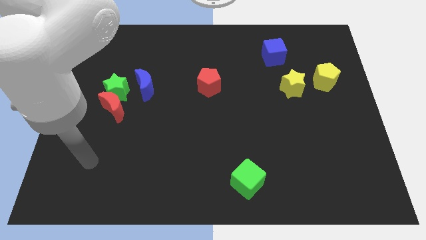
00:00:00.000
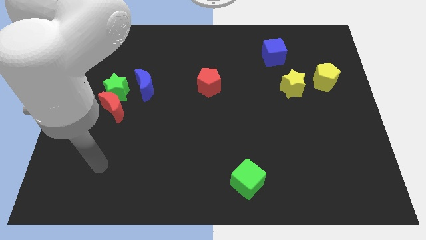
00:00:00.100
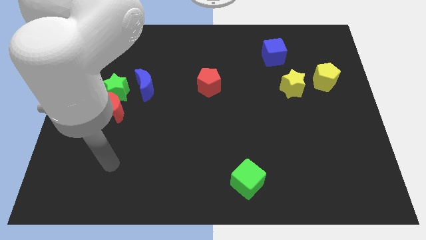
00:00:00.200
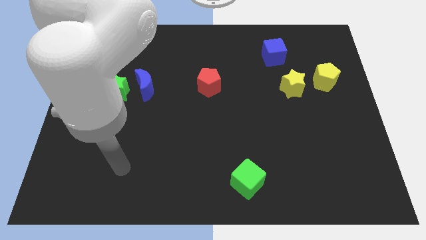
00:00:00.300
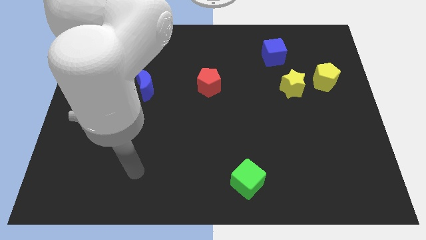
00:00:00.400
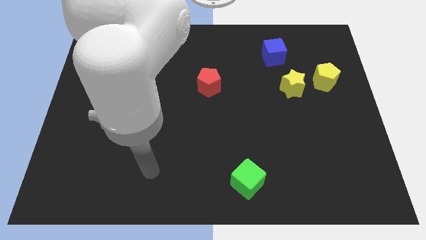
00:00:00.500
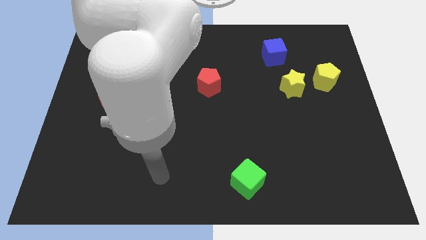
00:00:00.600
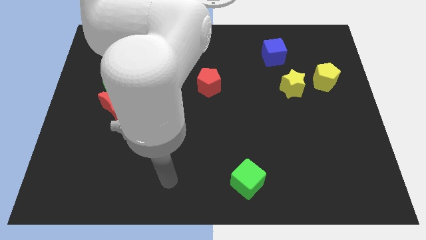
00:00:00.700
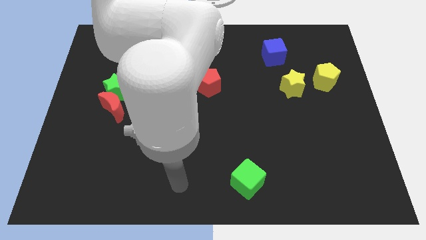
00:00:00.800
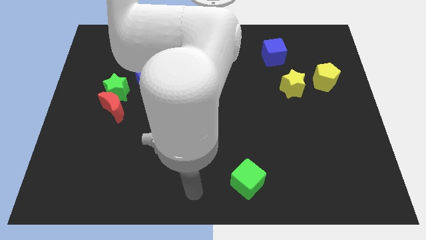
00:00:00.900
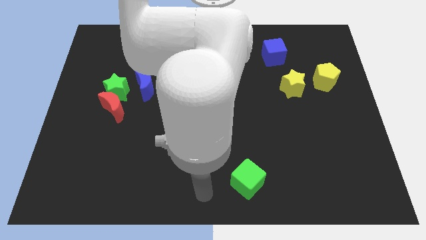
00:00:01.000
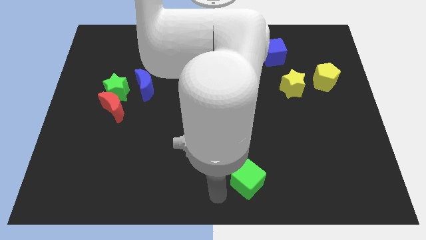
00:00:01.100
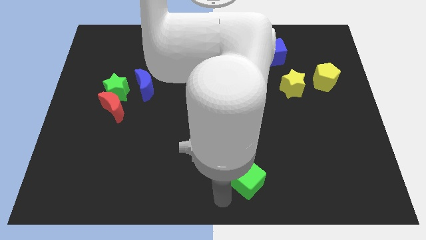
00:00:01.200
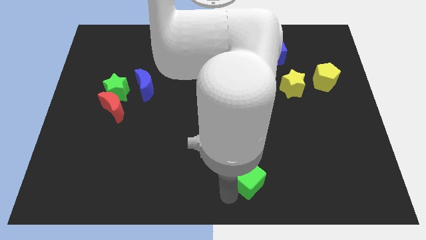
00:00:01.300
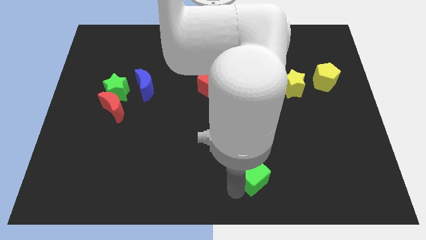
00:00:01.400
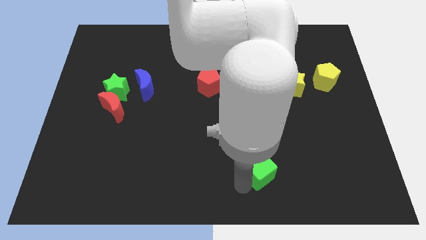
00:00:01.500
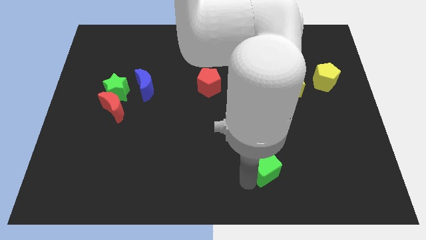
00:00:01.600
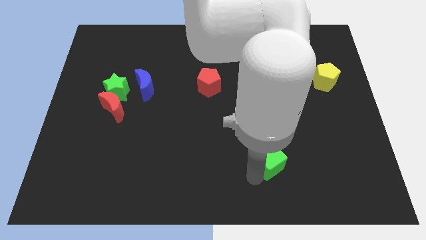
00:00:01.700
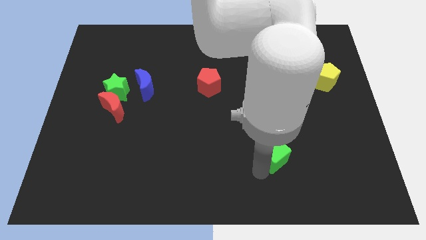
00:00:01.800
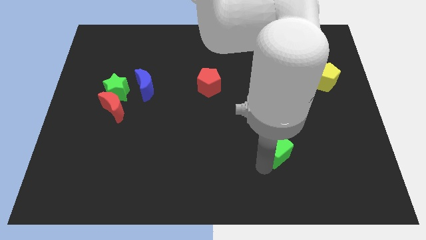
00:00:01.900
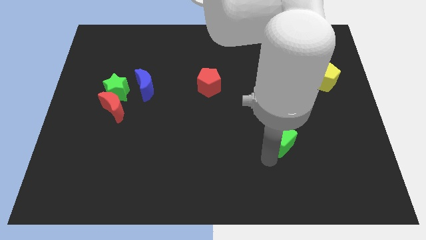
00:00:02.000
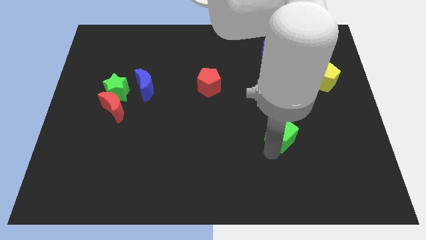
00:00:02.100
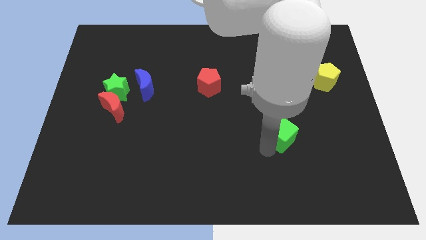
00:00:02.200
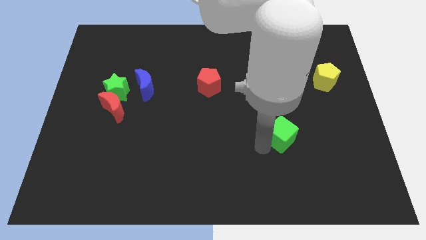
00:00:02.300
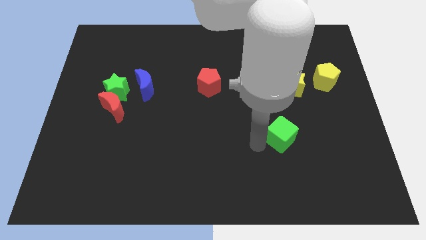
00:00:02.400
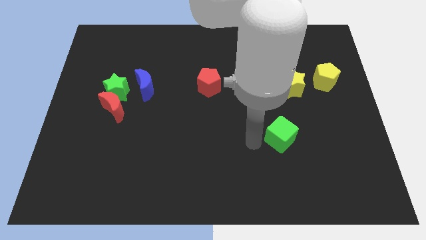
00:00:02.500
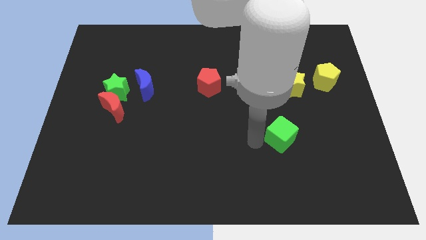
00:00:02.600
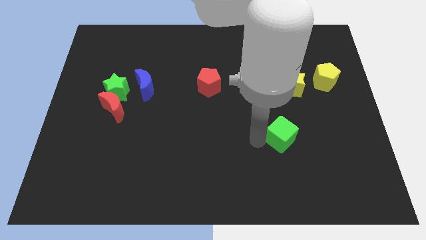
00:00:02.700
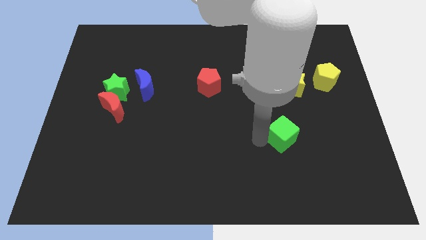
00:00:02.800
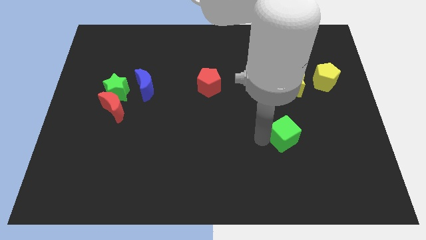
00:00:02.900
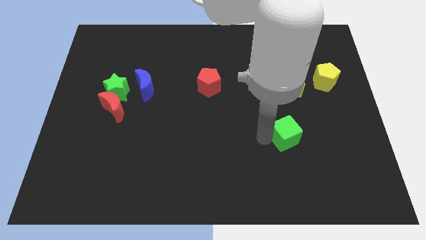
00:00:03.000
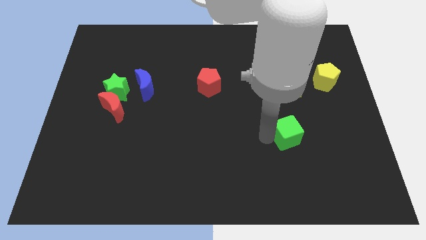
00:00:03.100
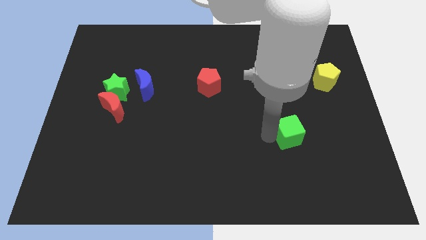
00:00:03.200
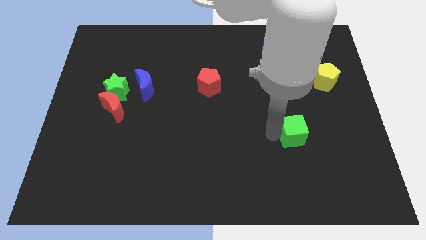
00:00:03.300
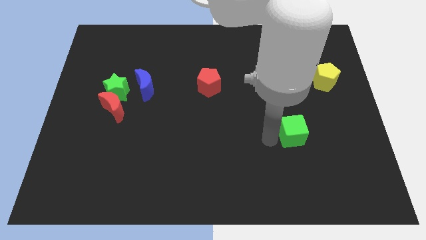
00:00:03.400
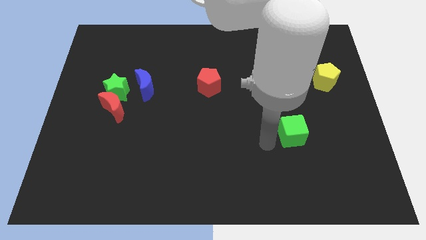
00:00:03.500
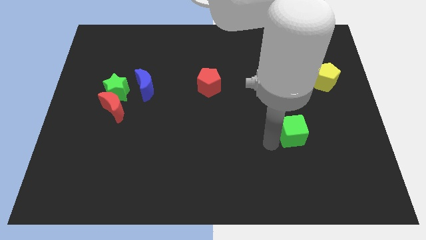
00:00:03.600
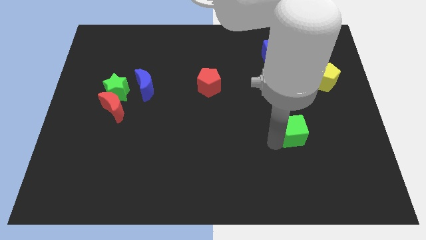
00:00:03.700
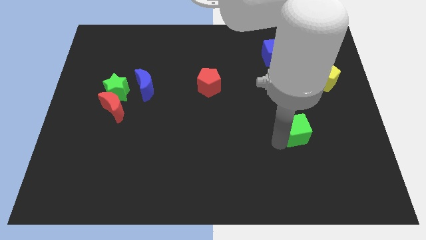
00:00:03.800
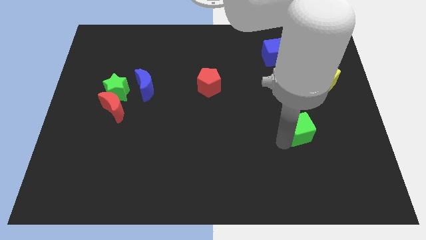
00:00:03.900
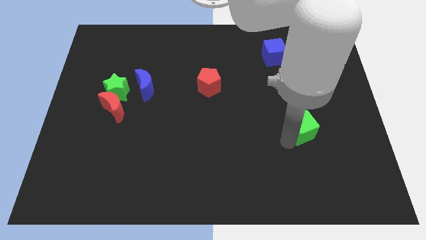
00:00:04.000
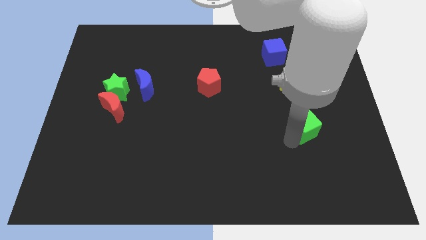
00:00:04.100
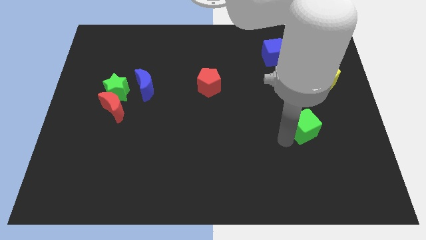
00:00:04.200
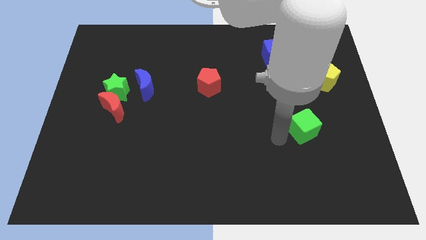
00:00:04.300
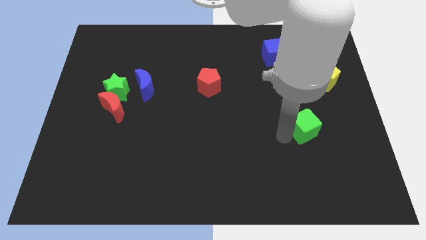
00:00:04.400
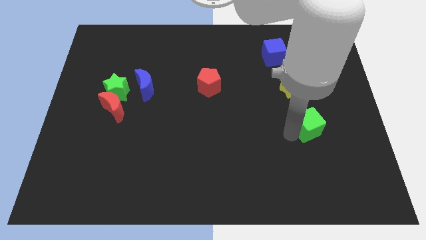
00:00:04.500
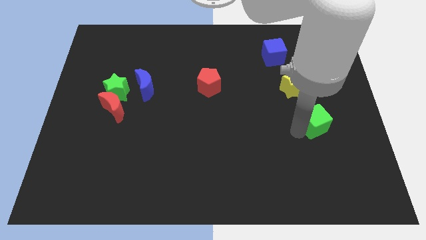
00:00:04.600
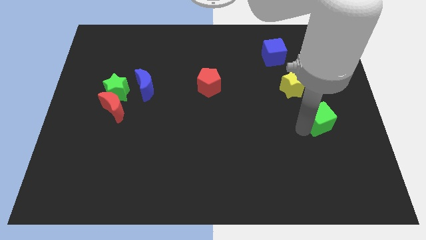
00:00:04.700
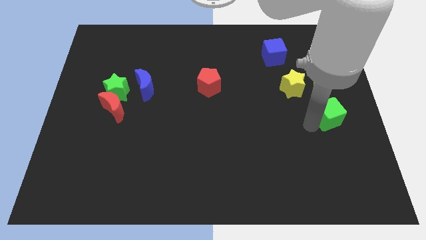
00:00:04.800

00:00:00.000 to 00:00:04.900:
slide the green cube to the right side of the board

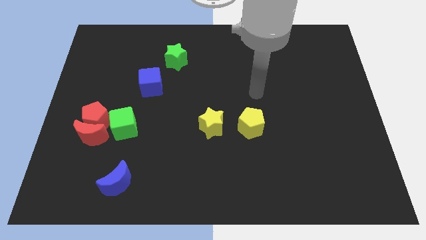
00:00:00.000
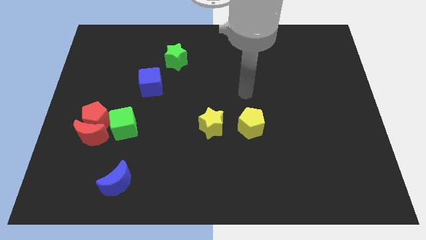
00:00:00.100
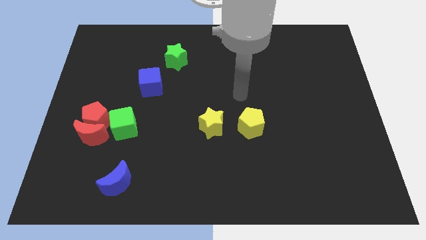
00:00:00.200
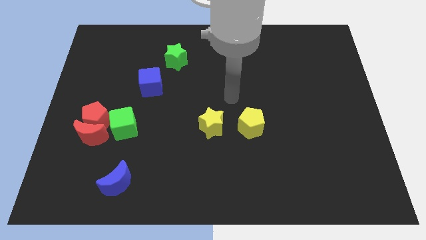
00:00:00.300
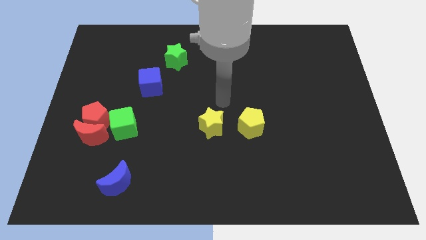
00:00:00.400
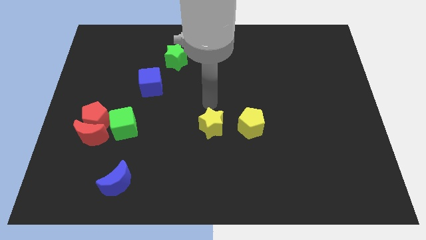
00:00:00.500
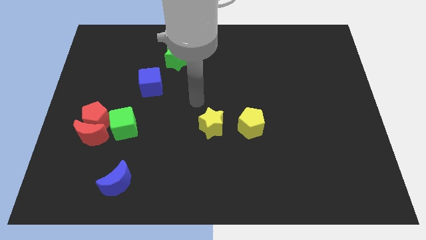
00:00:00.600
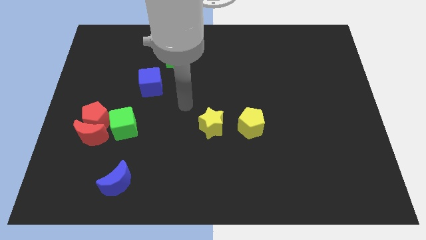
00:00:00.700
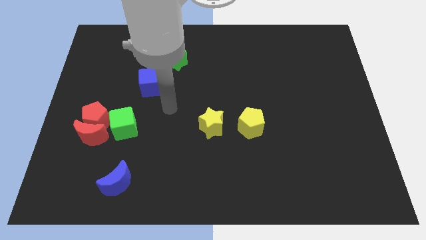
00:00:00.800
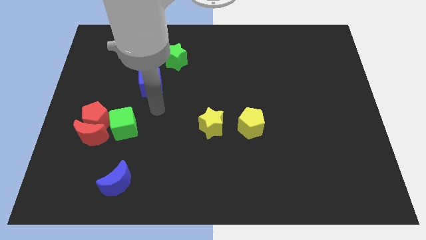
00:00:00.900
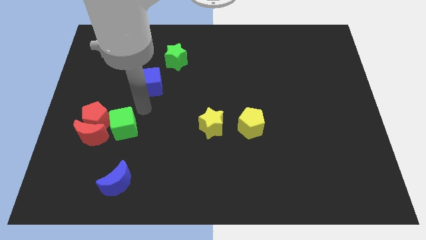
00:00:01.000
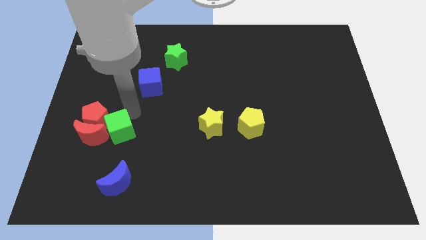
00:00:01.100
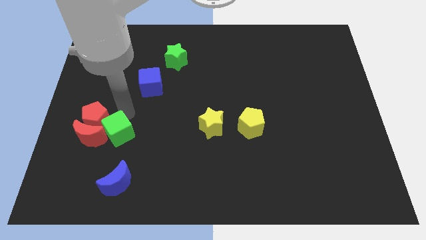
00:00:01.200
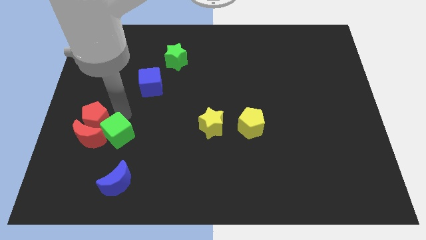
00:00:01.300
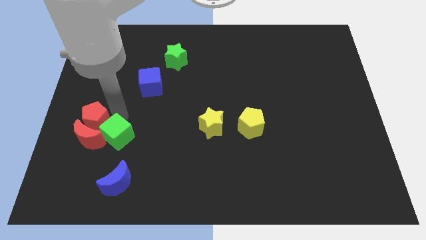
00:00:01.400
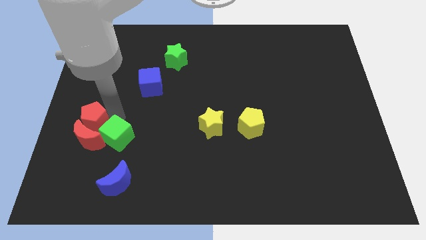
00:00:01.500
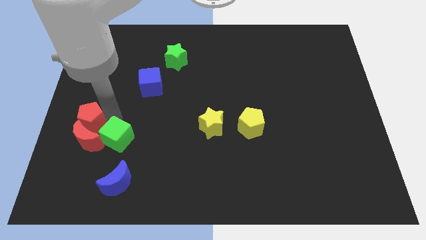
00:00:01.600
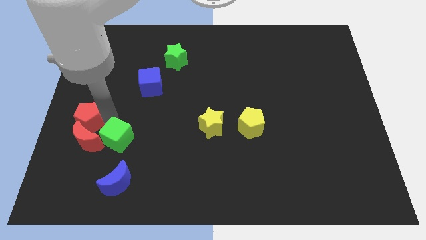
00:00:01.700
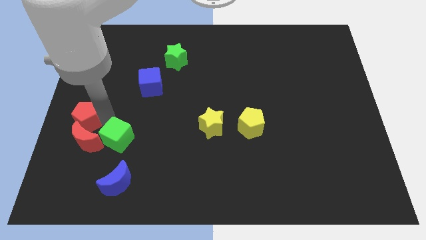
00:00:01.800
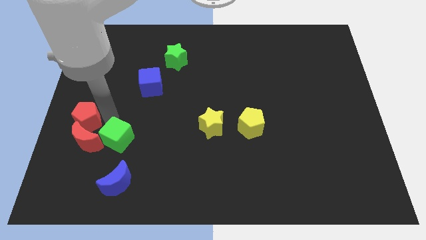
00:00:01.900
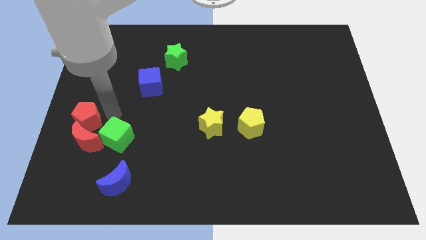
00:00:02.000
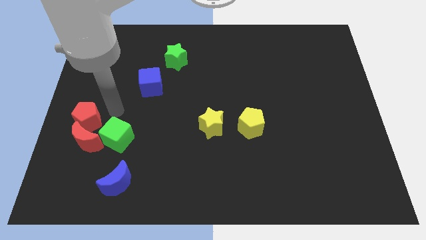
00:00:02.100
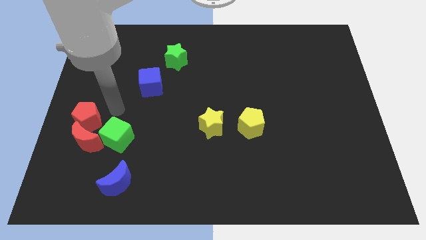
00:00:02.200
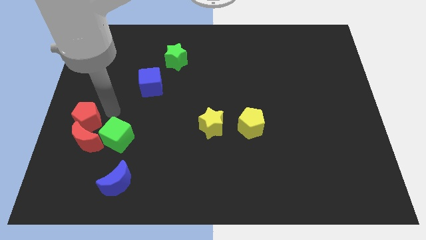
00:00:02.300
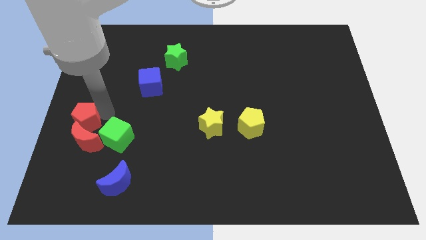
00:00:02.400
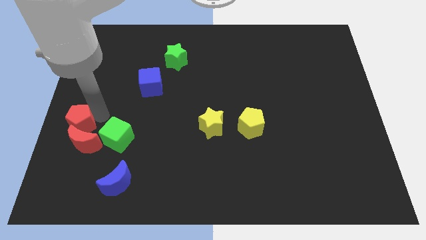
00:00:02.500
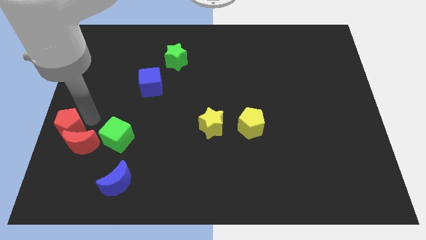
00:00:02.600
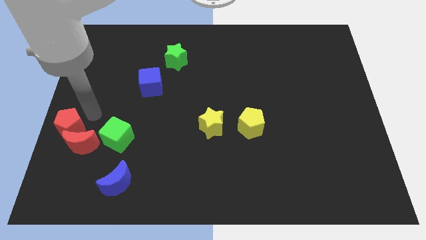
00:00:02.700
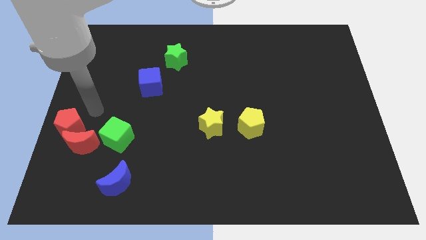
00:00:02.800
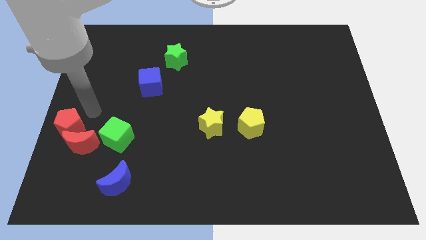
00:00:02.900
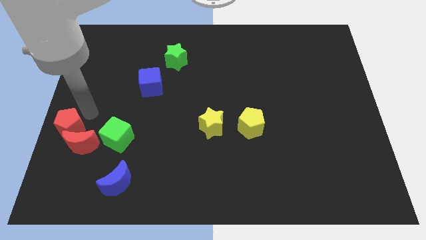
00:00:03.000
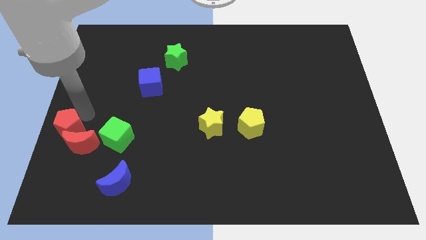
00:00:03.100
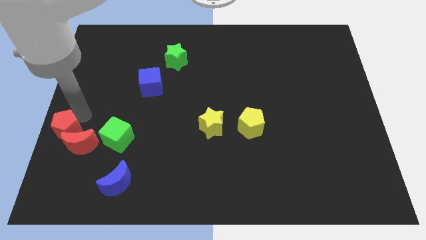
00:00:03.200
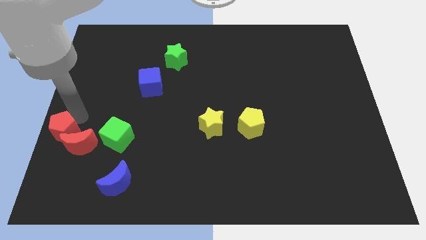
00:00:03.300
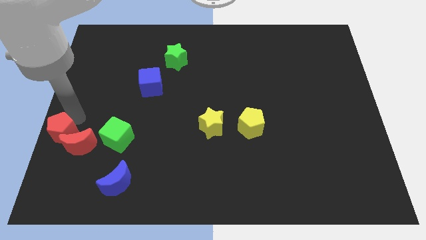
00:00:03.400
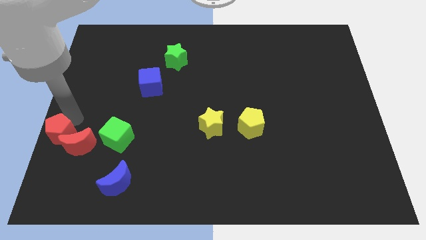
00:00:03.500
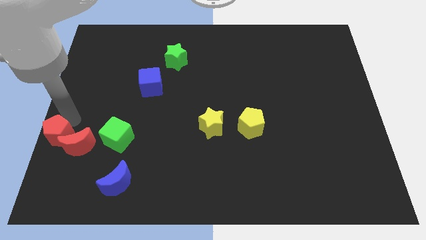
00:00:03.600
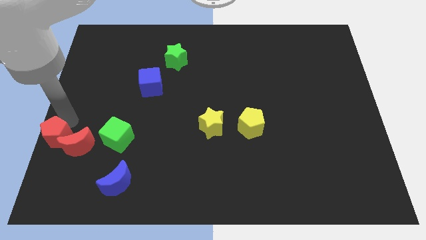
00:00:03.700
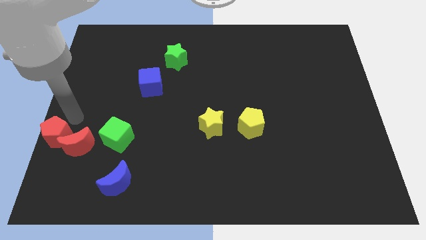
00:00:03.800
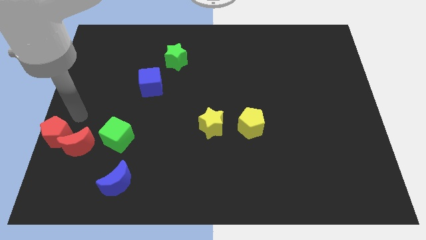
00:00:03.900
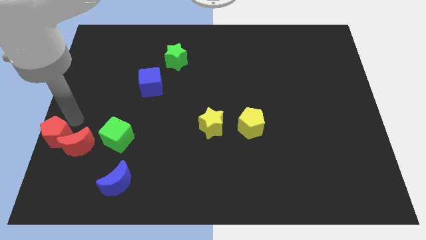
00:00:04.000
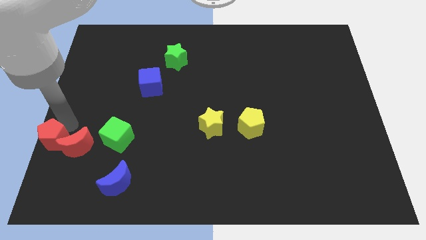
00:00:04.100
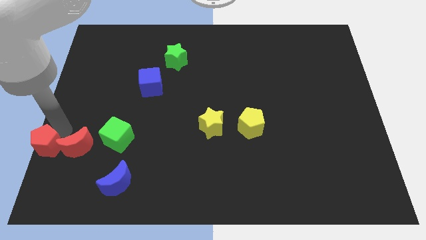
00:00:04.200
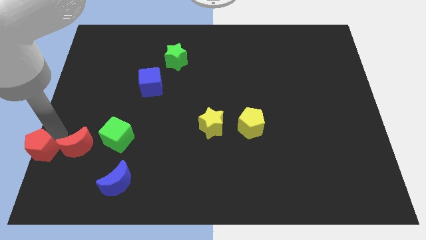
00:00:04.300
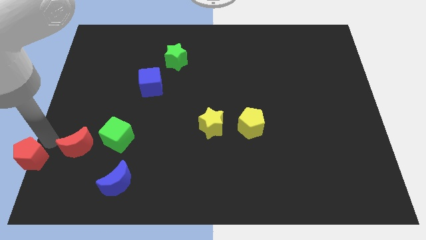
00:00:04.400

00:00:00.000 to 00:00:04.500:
move the red pentagon to the bottom left
